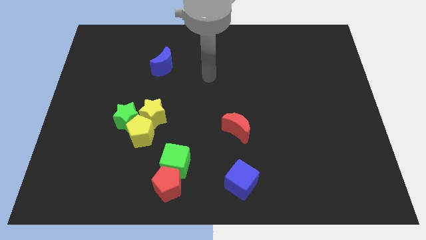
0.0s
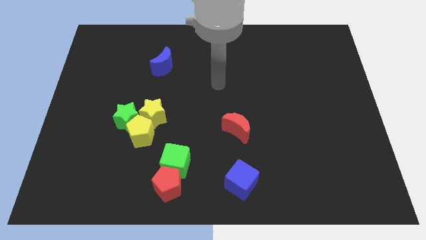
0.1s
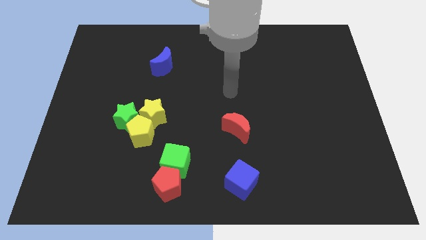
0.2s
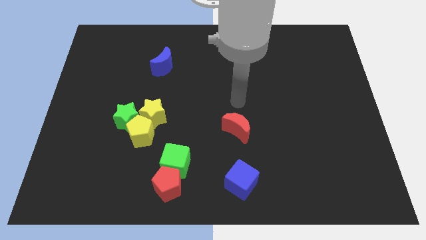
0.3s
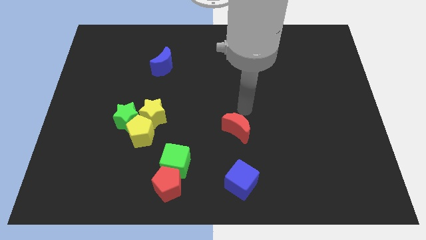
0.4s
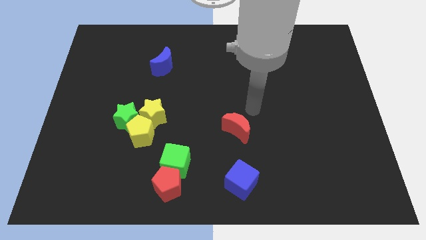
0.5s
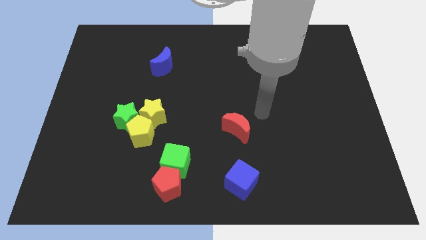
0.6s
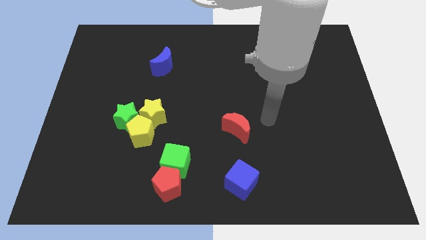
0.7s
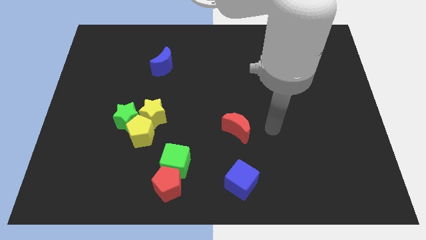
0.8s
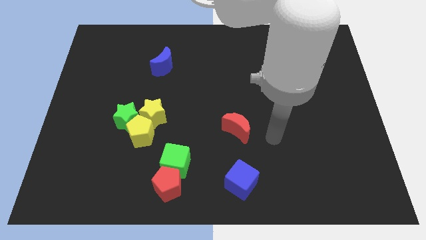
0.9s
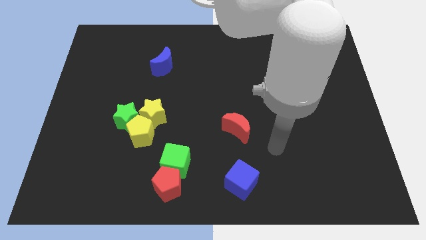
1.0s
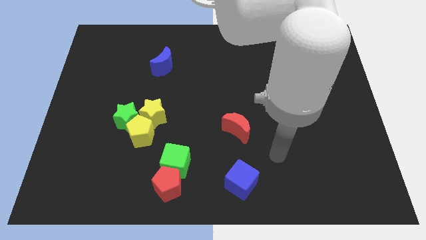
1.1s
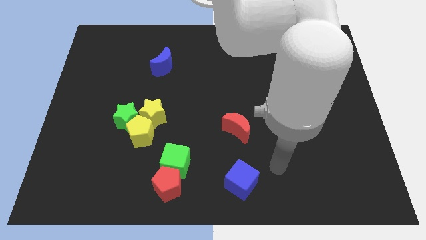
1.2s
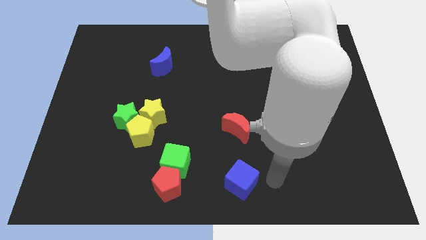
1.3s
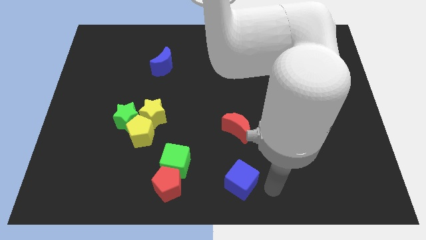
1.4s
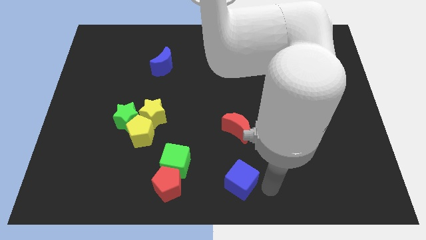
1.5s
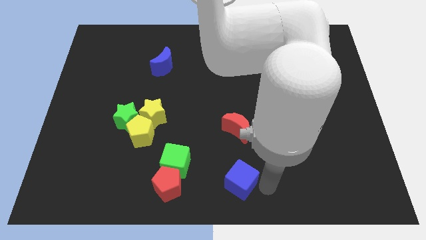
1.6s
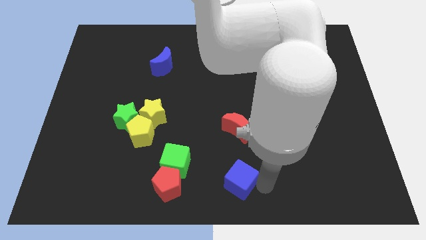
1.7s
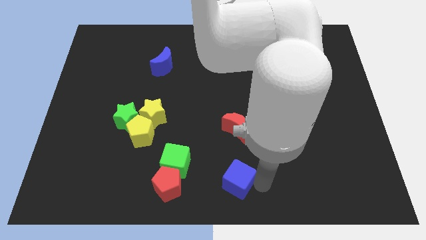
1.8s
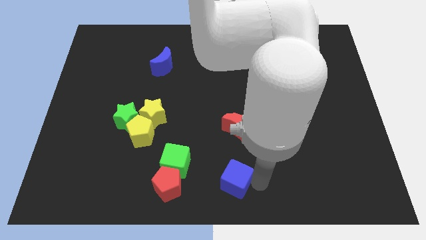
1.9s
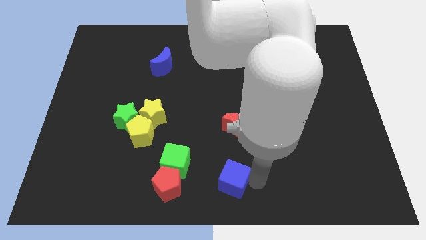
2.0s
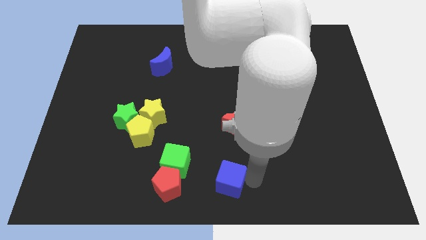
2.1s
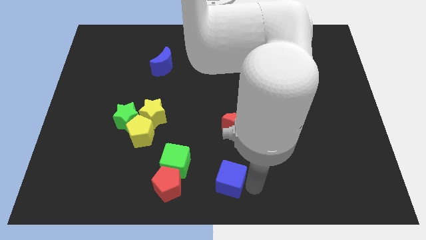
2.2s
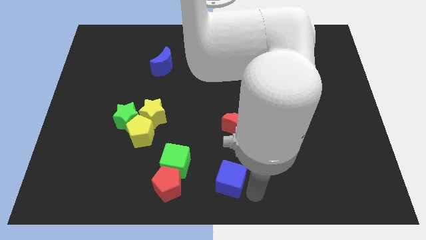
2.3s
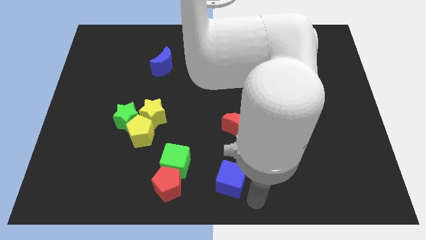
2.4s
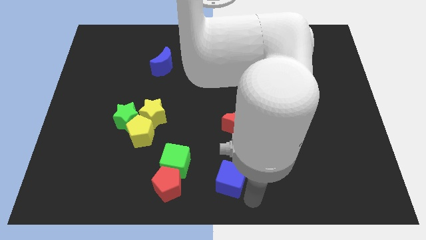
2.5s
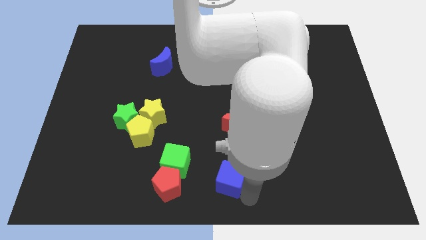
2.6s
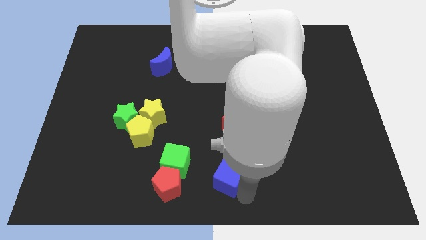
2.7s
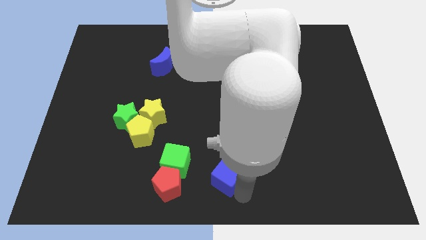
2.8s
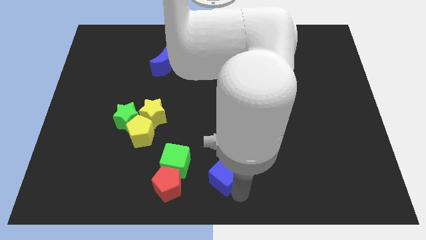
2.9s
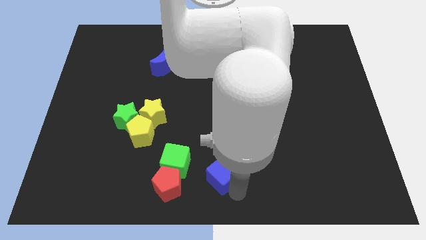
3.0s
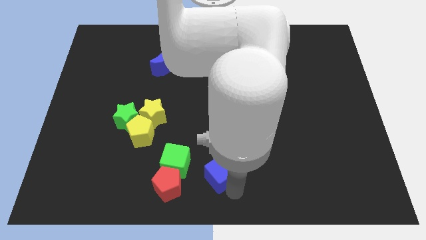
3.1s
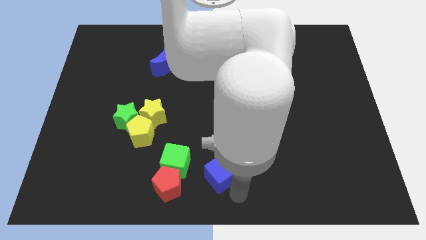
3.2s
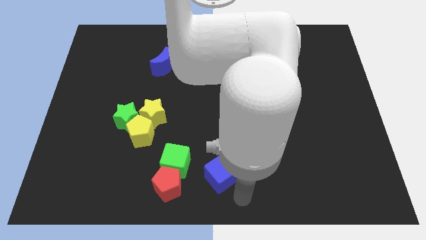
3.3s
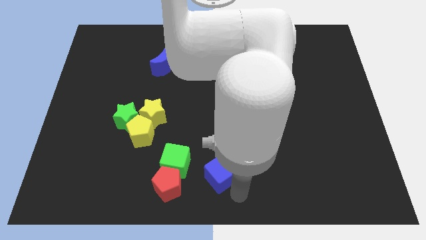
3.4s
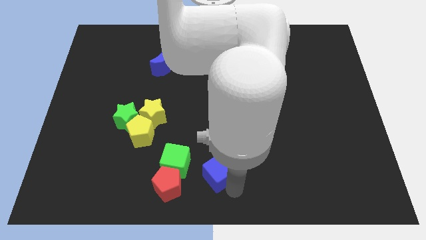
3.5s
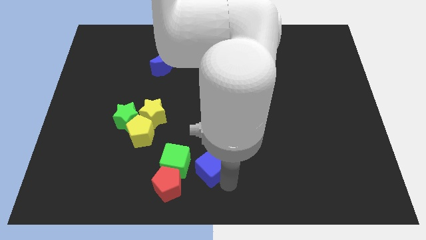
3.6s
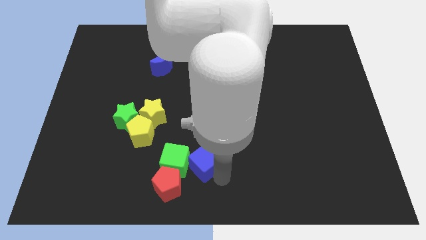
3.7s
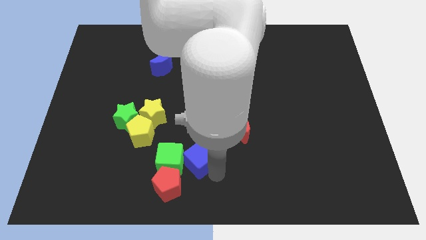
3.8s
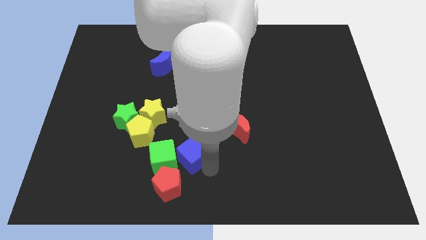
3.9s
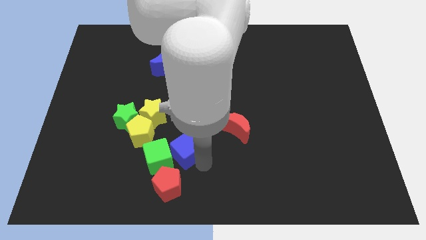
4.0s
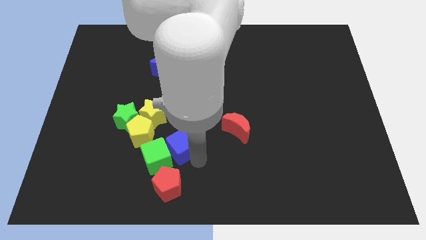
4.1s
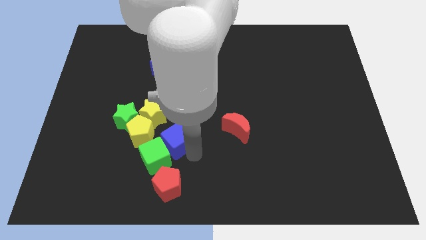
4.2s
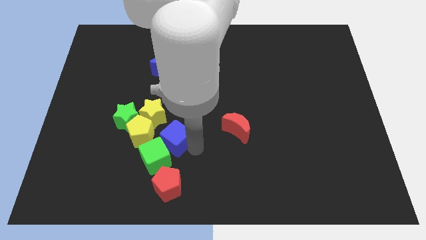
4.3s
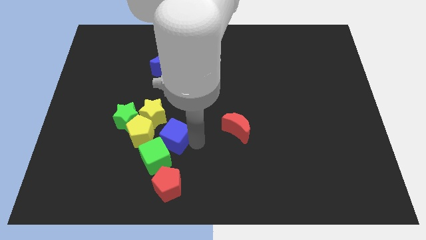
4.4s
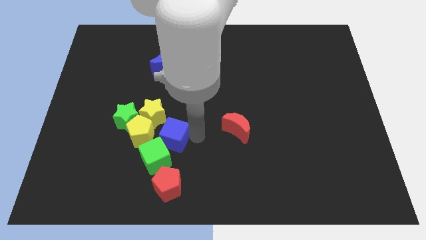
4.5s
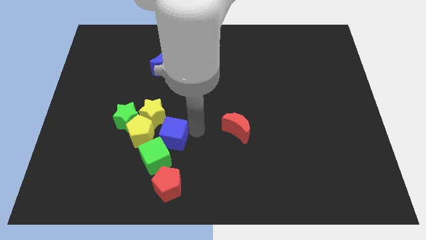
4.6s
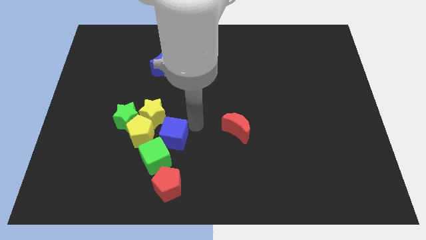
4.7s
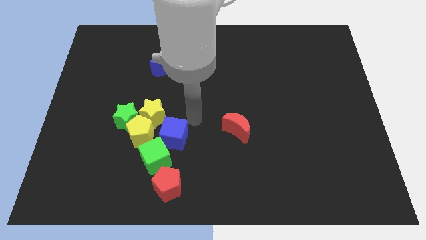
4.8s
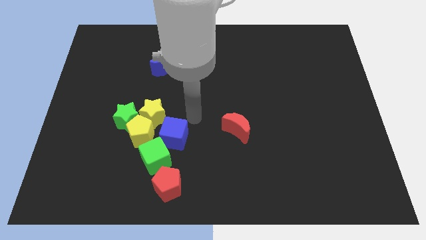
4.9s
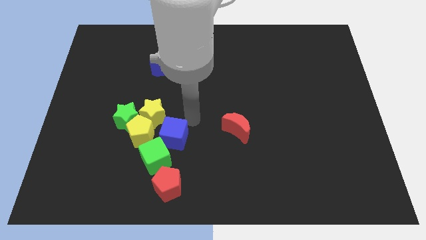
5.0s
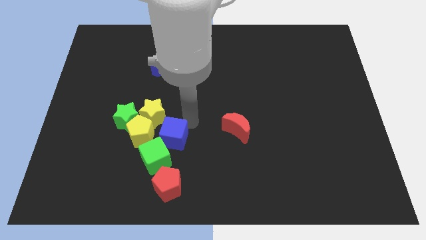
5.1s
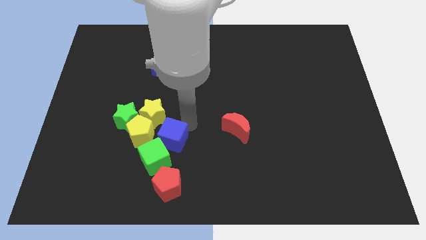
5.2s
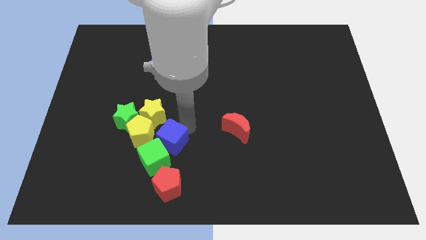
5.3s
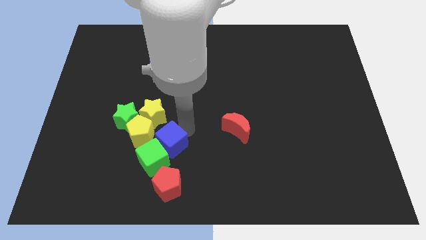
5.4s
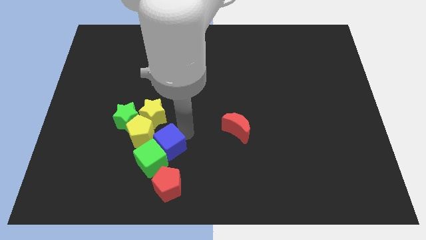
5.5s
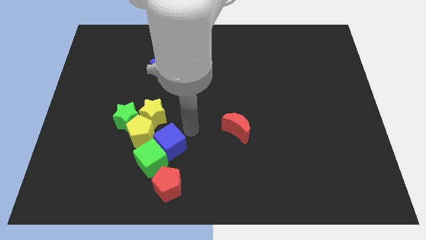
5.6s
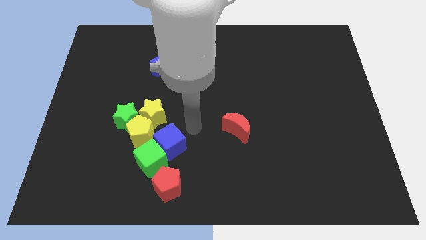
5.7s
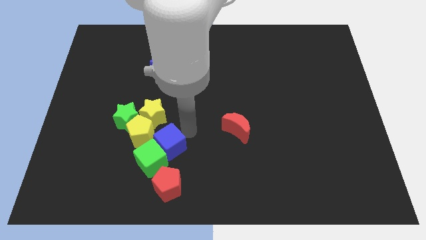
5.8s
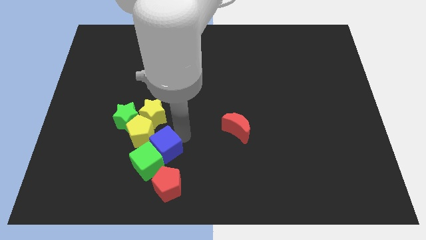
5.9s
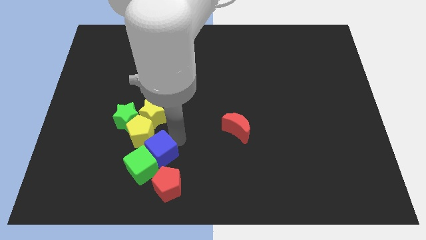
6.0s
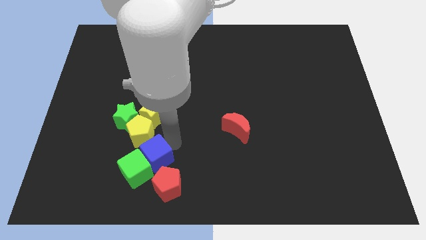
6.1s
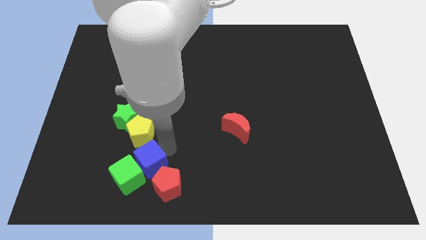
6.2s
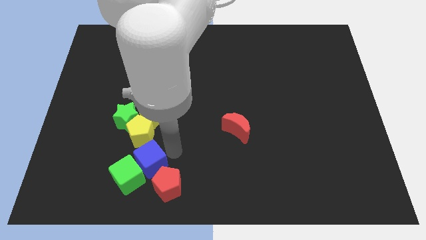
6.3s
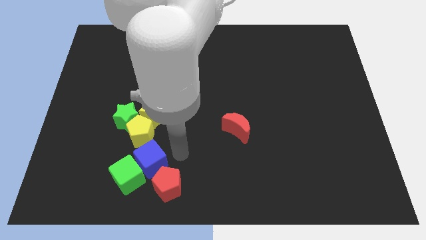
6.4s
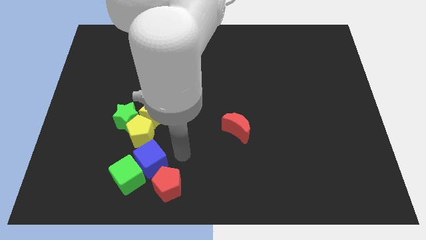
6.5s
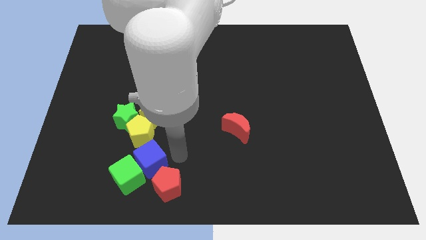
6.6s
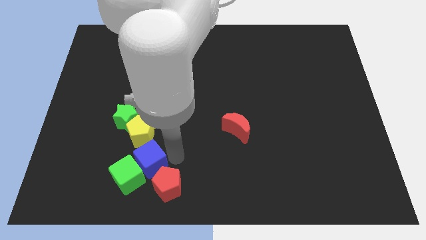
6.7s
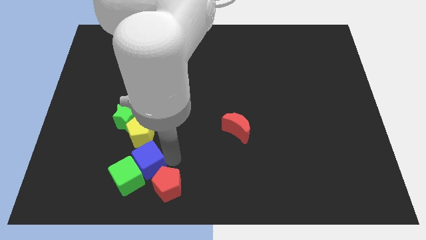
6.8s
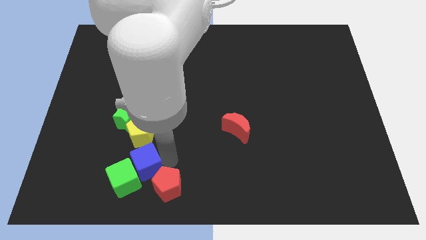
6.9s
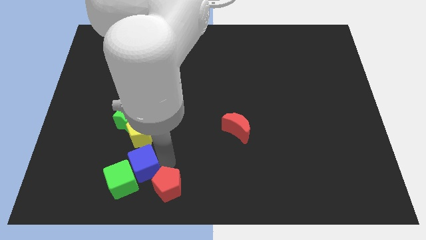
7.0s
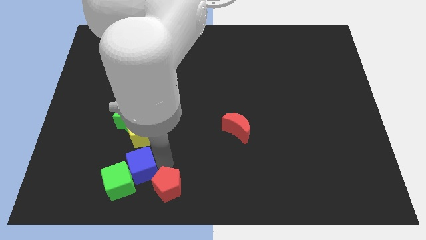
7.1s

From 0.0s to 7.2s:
move the blue cube left

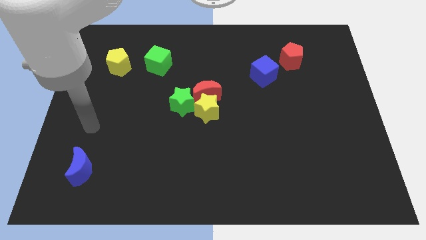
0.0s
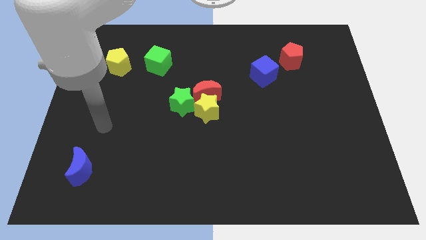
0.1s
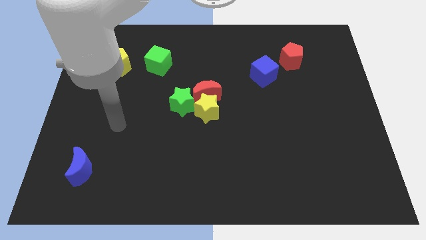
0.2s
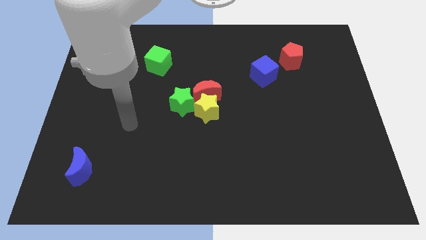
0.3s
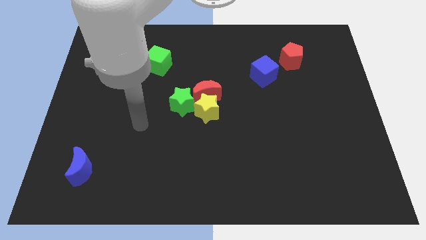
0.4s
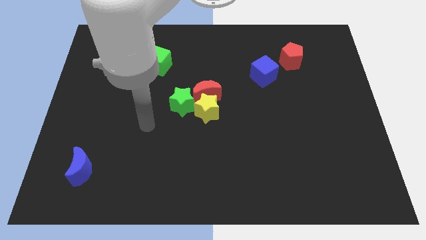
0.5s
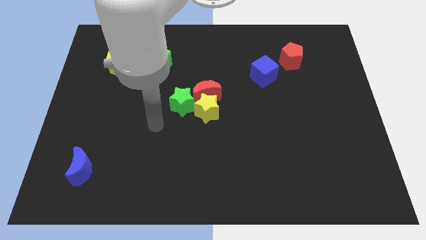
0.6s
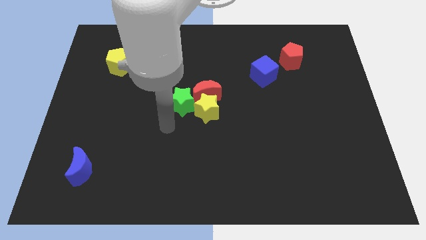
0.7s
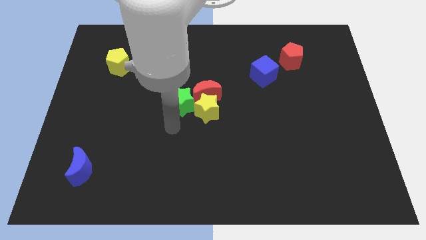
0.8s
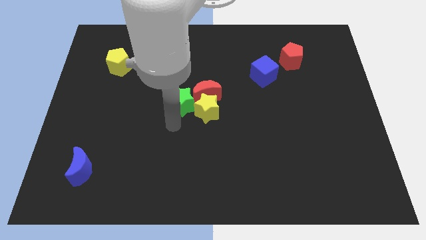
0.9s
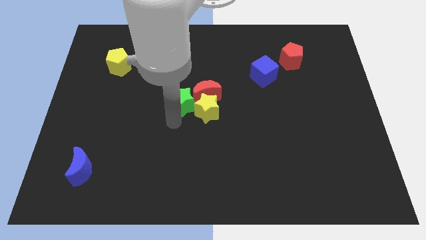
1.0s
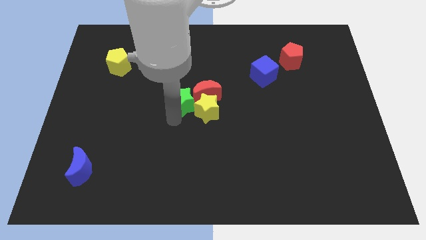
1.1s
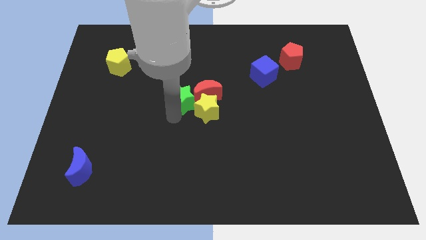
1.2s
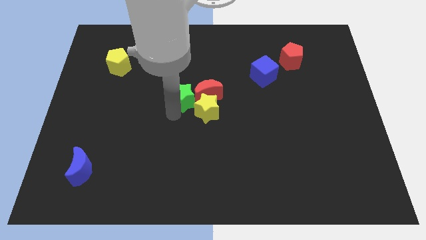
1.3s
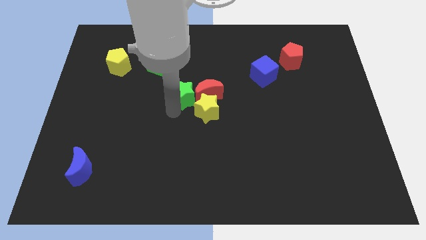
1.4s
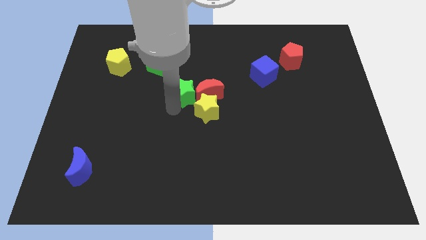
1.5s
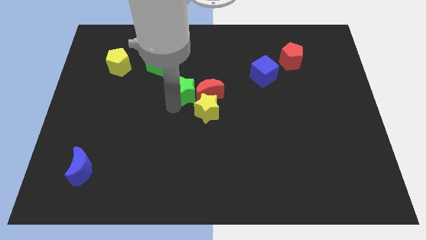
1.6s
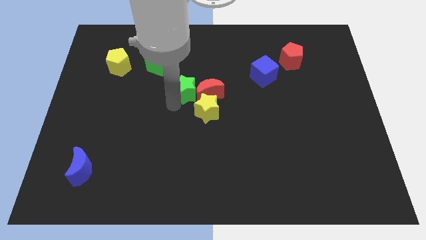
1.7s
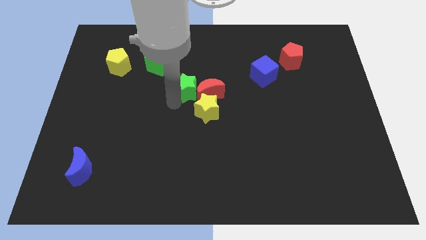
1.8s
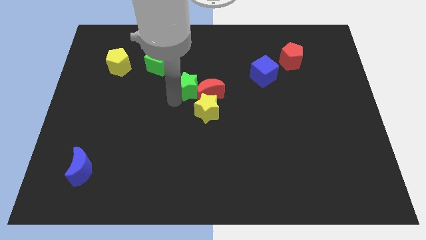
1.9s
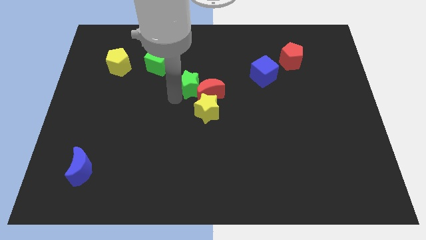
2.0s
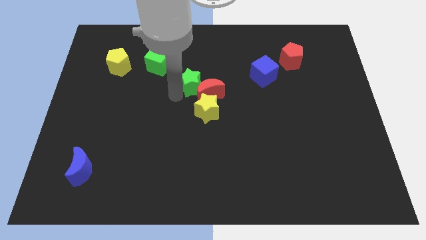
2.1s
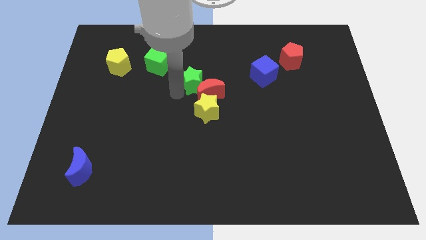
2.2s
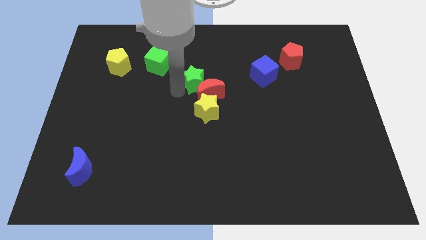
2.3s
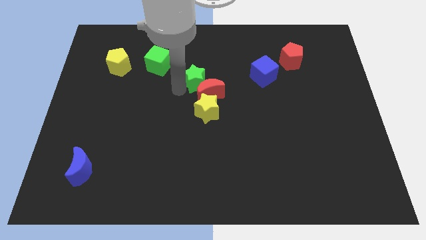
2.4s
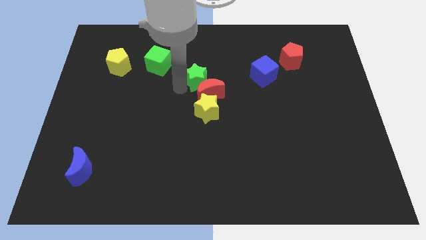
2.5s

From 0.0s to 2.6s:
slide the green star a little bit up and right
